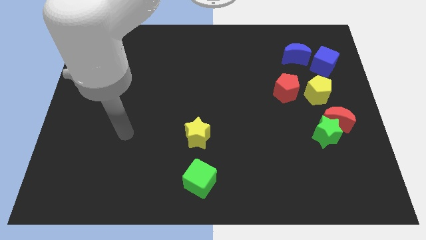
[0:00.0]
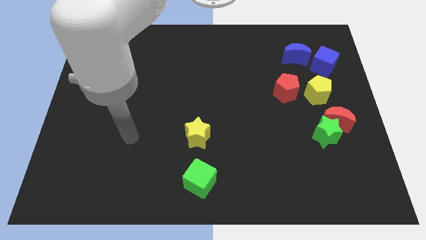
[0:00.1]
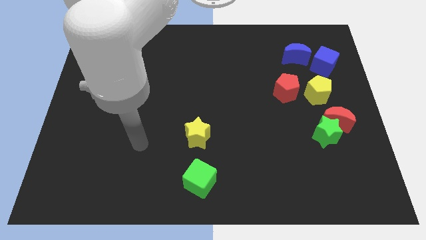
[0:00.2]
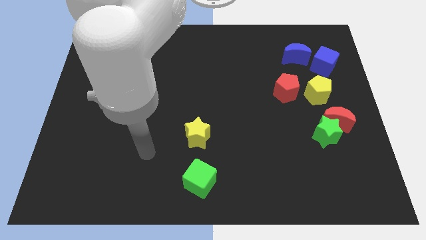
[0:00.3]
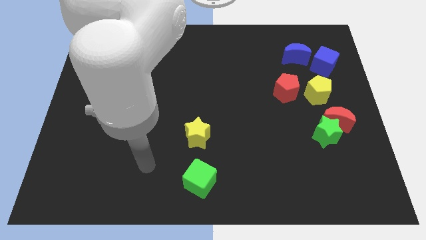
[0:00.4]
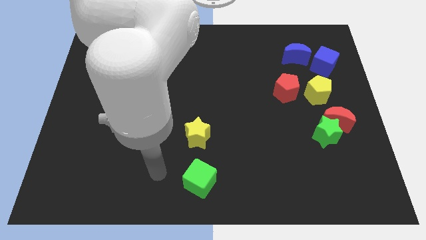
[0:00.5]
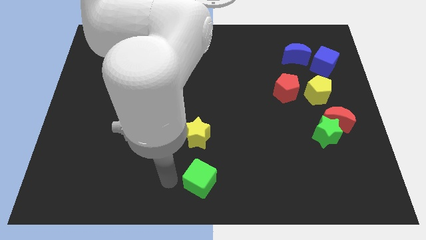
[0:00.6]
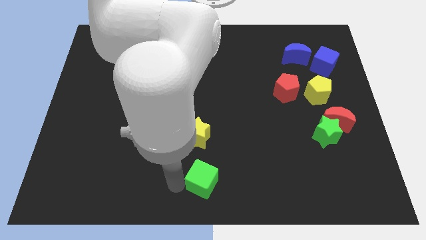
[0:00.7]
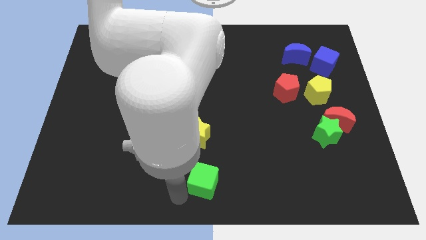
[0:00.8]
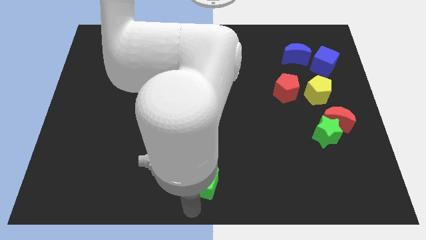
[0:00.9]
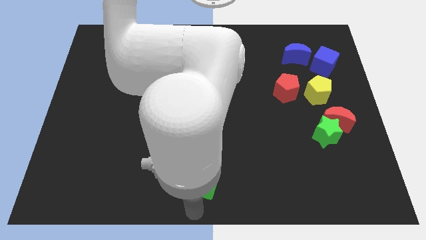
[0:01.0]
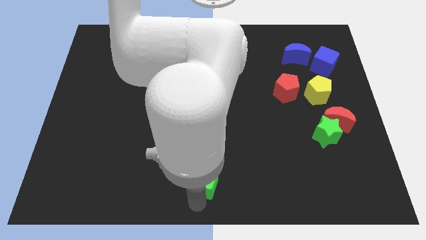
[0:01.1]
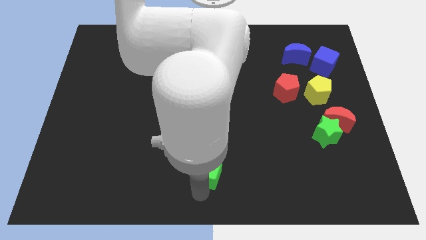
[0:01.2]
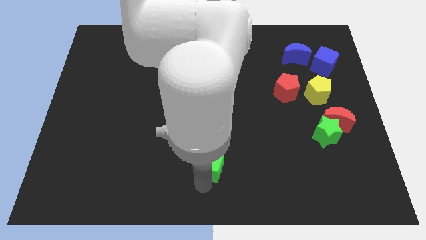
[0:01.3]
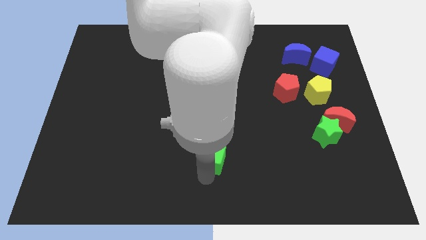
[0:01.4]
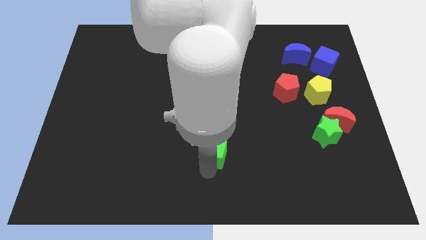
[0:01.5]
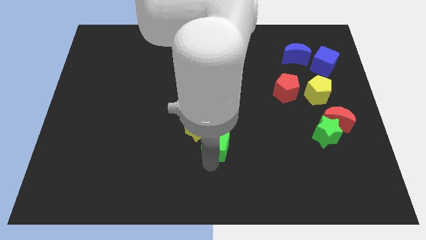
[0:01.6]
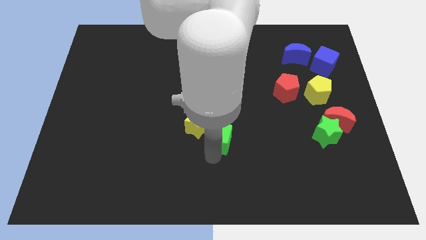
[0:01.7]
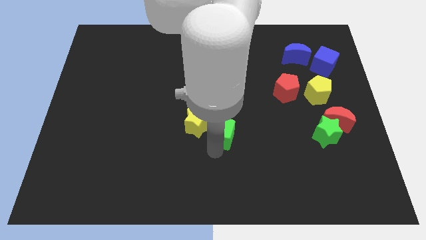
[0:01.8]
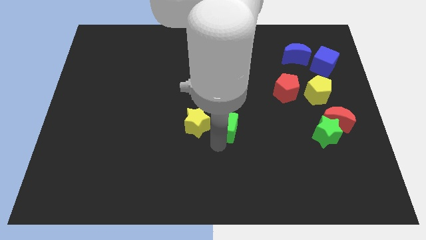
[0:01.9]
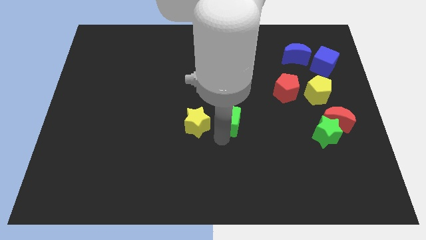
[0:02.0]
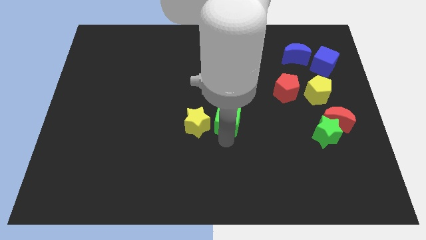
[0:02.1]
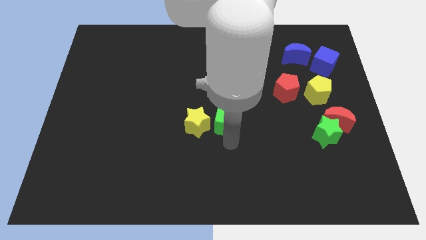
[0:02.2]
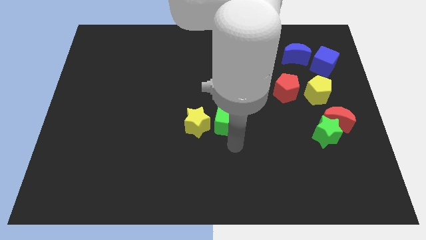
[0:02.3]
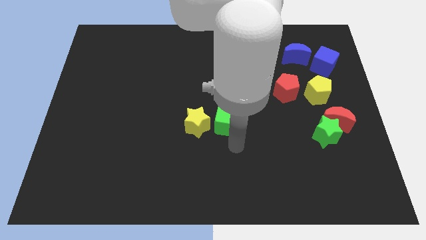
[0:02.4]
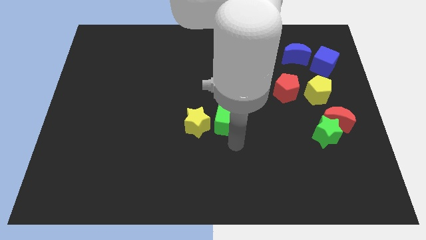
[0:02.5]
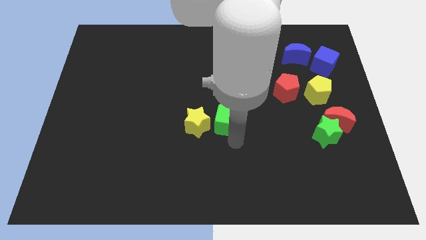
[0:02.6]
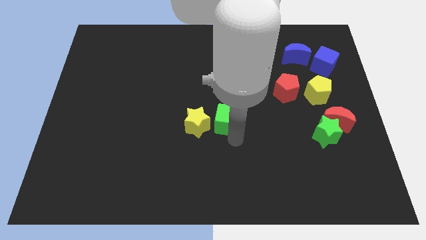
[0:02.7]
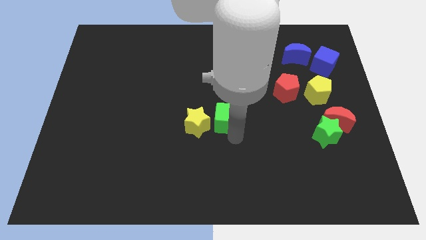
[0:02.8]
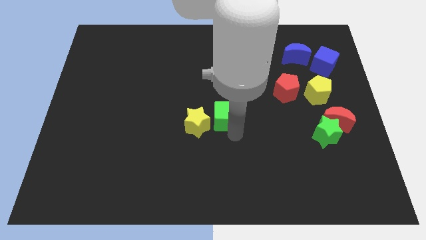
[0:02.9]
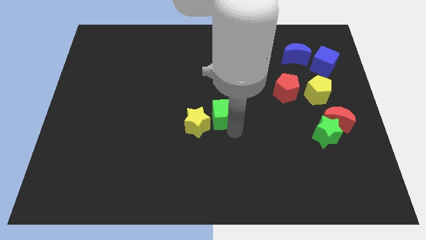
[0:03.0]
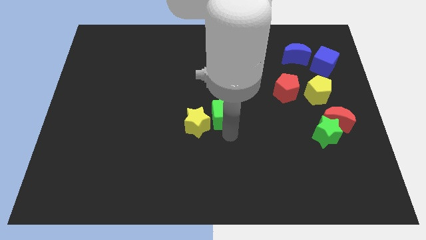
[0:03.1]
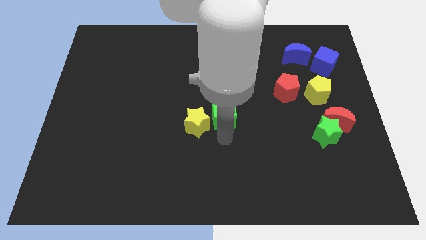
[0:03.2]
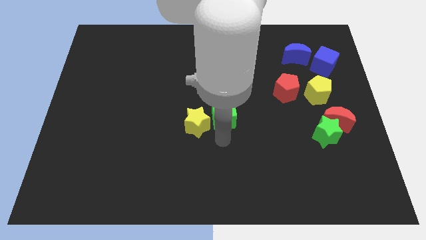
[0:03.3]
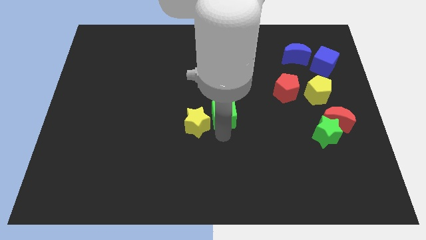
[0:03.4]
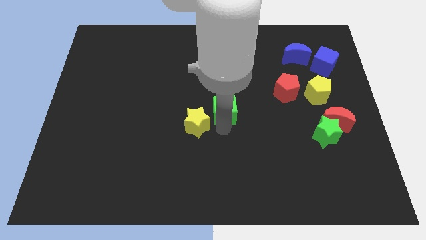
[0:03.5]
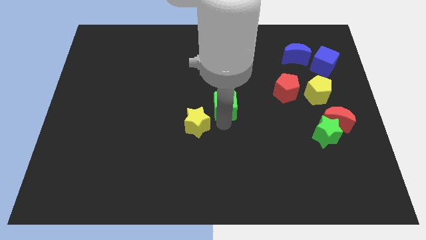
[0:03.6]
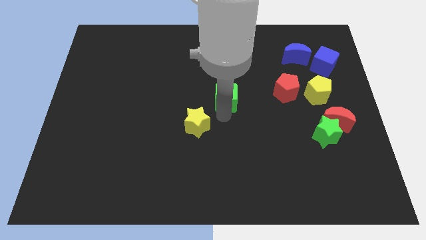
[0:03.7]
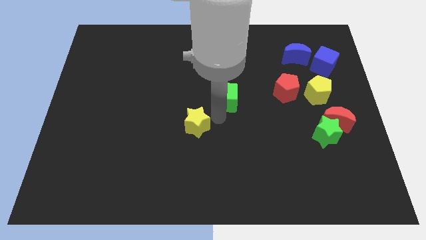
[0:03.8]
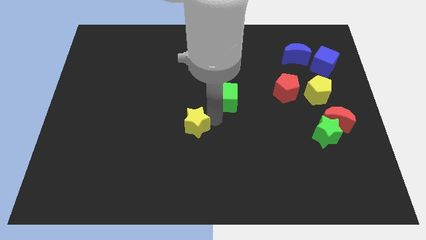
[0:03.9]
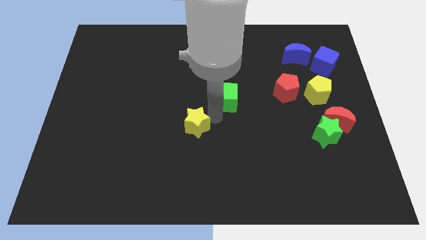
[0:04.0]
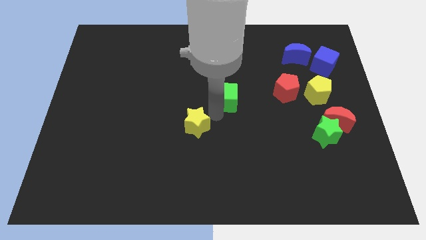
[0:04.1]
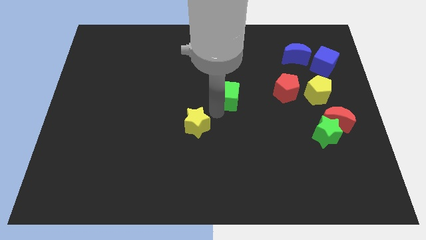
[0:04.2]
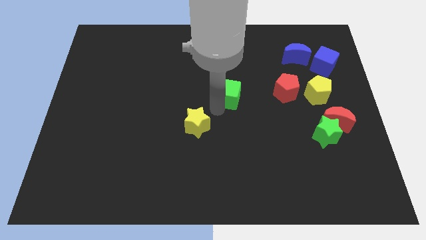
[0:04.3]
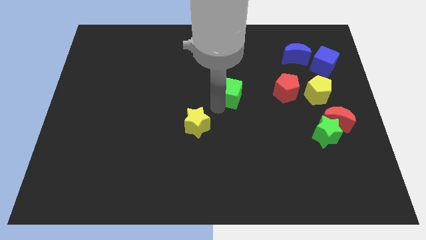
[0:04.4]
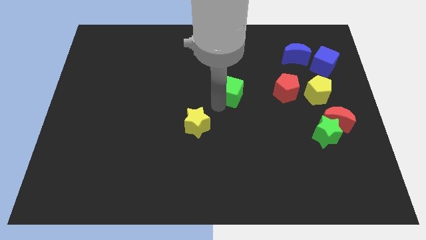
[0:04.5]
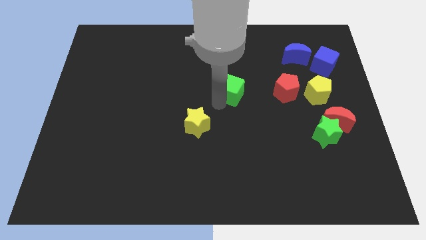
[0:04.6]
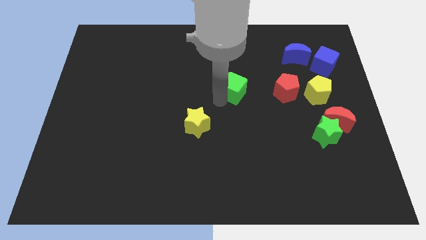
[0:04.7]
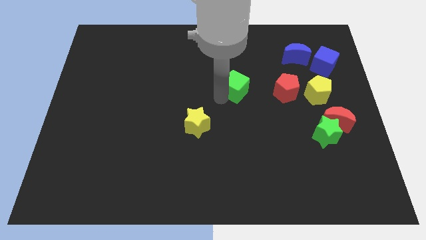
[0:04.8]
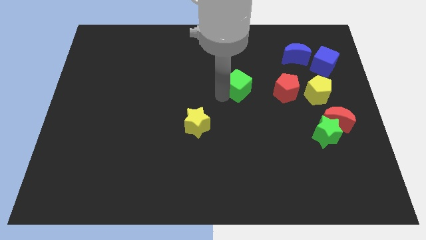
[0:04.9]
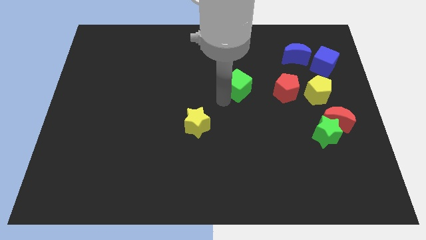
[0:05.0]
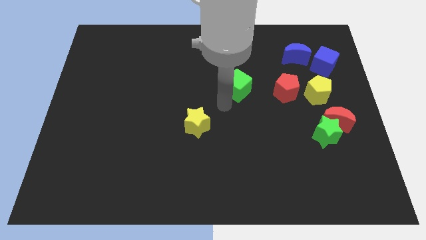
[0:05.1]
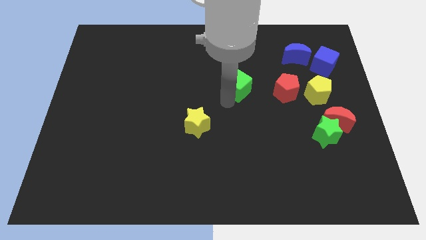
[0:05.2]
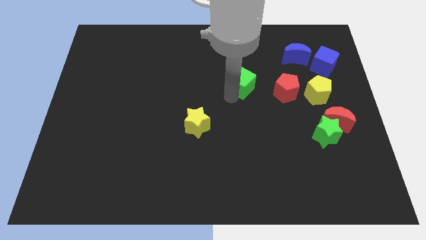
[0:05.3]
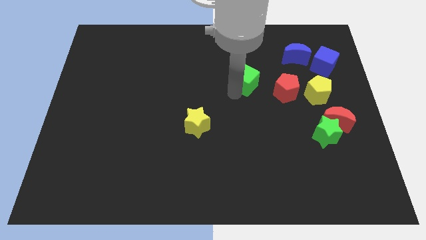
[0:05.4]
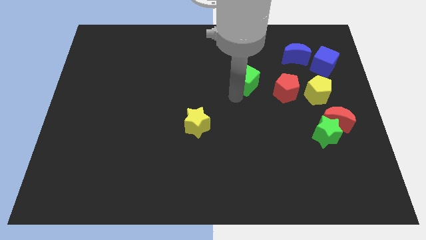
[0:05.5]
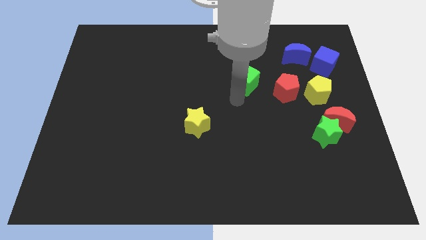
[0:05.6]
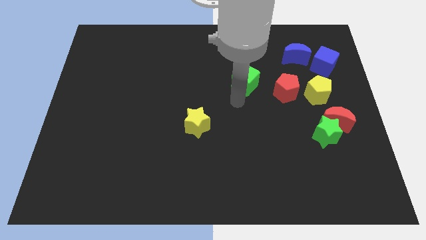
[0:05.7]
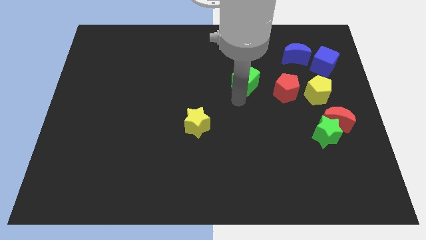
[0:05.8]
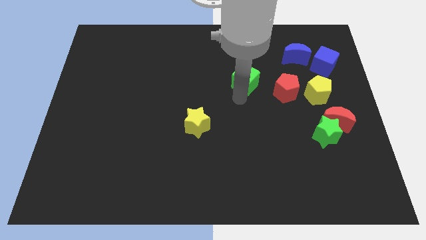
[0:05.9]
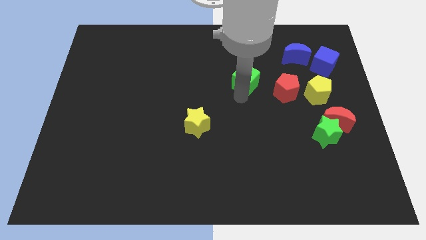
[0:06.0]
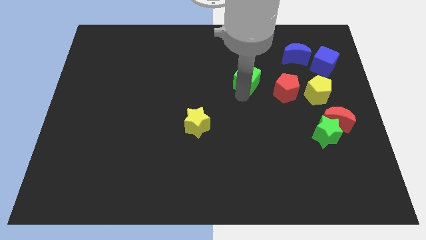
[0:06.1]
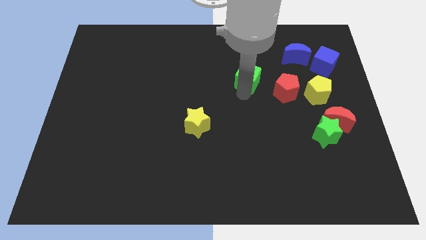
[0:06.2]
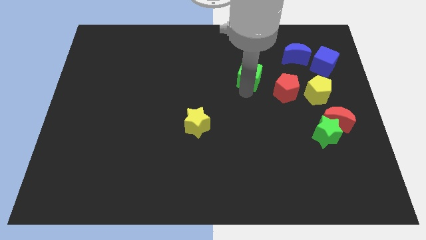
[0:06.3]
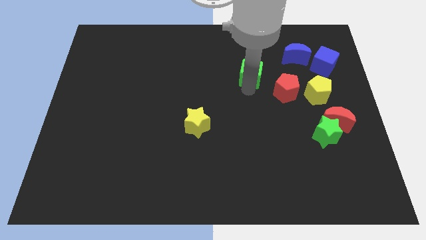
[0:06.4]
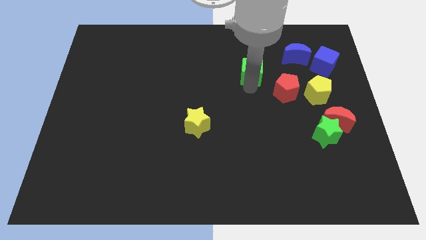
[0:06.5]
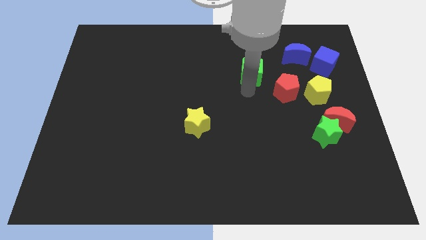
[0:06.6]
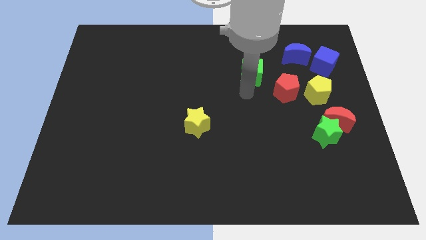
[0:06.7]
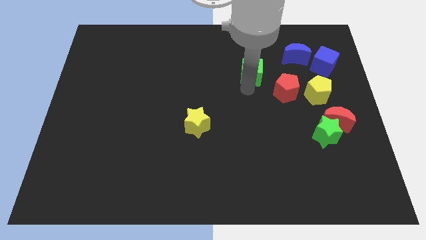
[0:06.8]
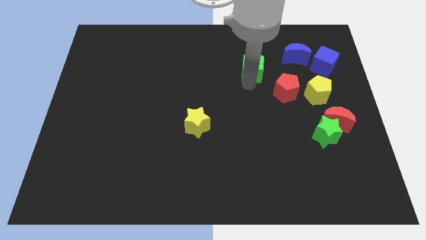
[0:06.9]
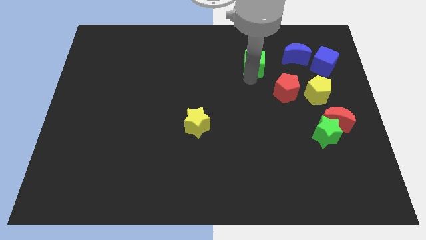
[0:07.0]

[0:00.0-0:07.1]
put the green cube left of the blue moon

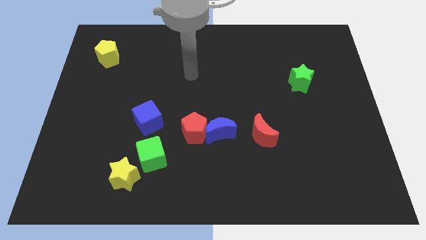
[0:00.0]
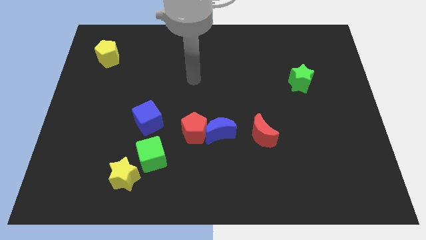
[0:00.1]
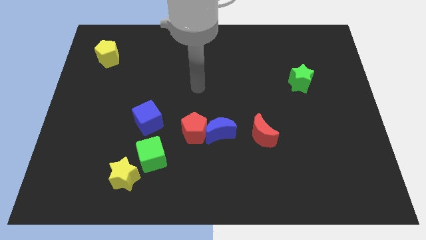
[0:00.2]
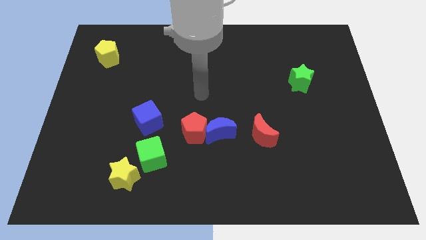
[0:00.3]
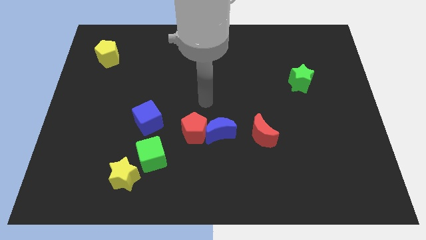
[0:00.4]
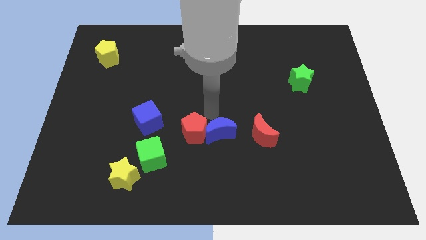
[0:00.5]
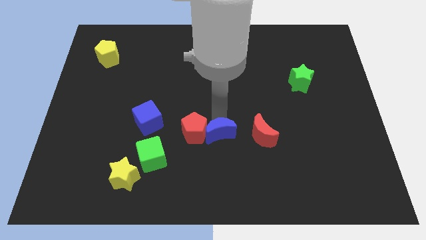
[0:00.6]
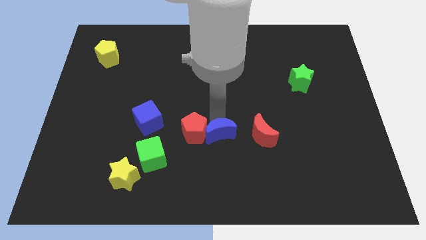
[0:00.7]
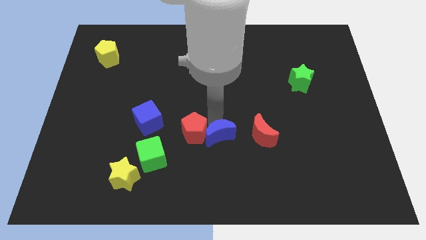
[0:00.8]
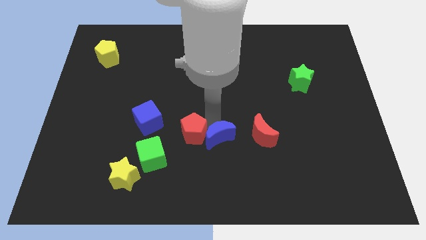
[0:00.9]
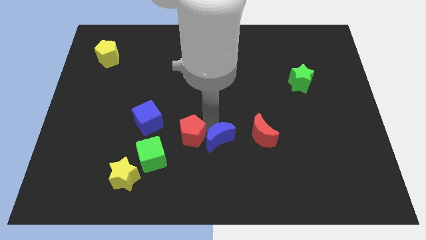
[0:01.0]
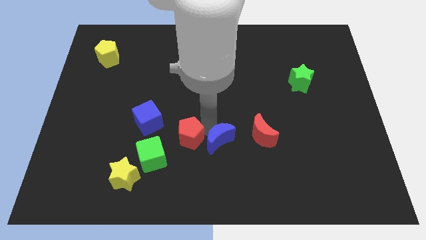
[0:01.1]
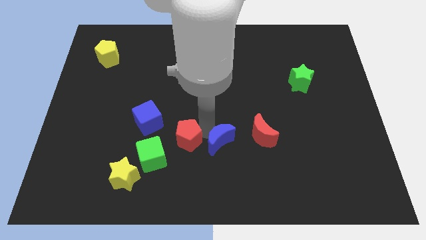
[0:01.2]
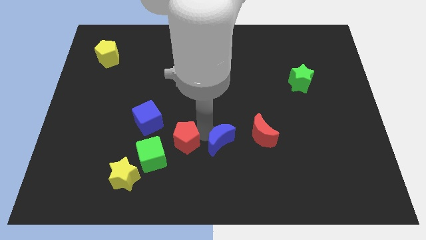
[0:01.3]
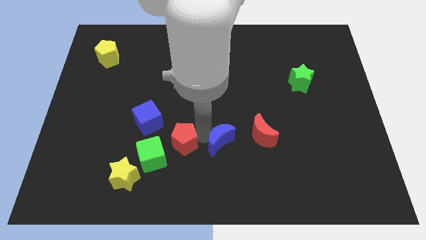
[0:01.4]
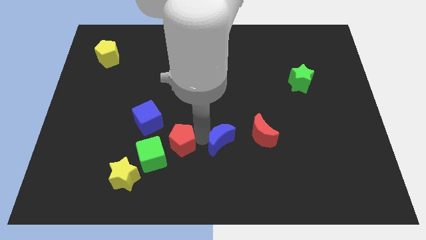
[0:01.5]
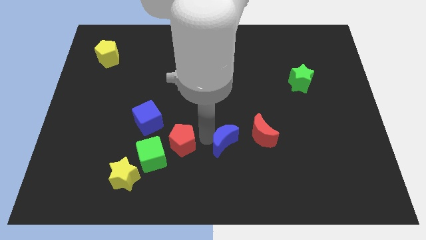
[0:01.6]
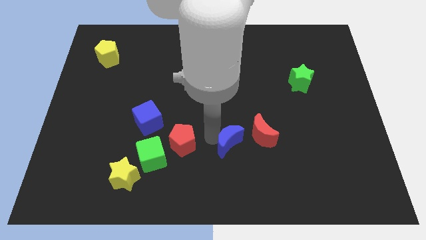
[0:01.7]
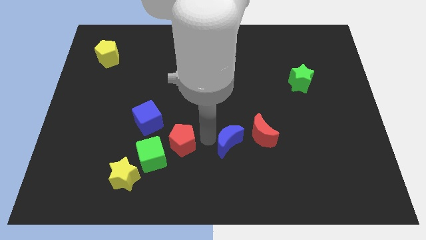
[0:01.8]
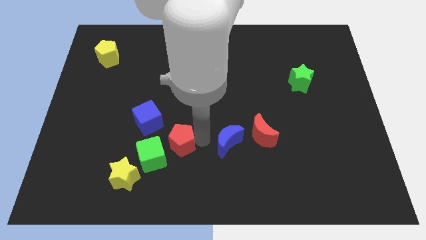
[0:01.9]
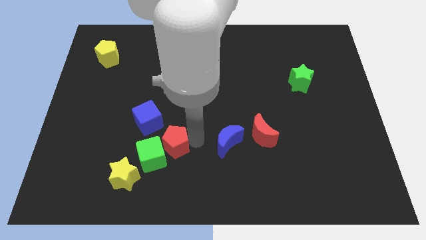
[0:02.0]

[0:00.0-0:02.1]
put the red pentagon diagonally up and to the right of the yellow star
